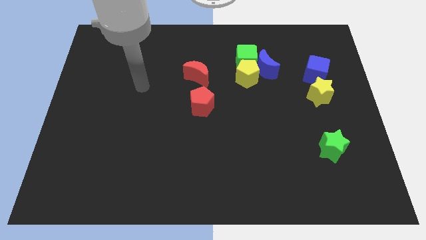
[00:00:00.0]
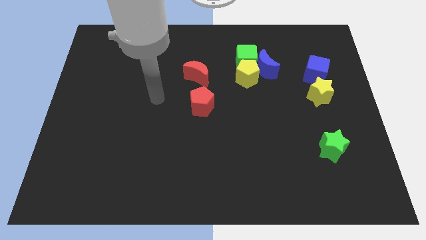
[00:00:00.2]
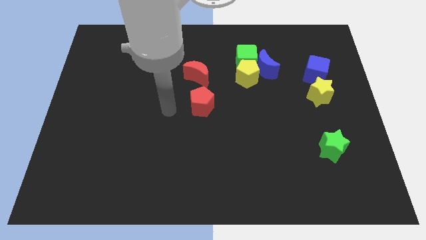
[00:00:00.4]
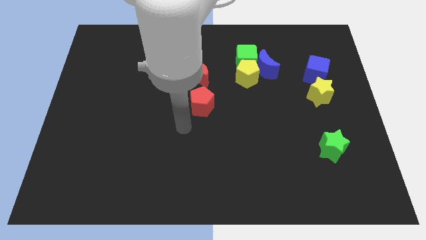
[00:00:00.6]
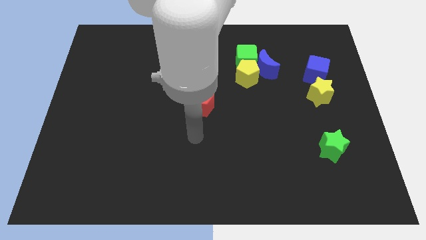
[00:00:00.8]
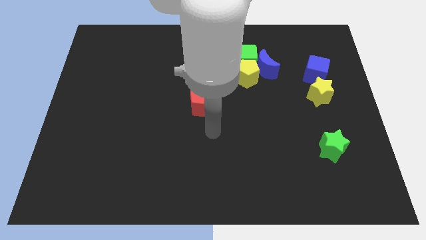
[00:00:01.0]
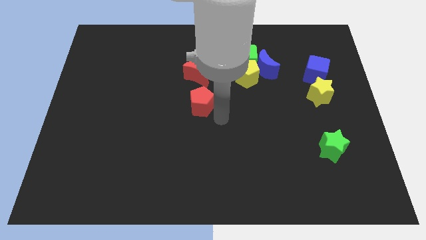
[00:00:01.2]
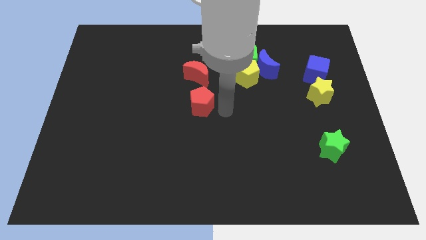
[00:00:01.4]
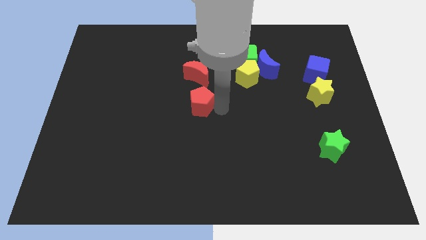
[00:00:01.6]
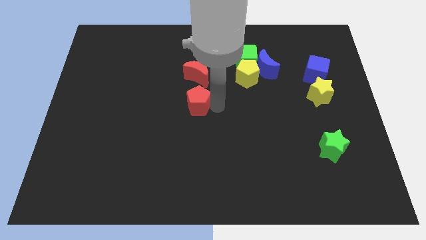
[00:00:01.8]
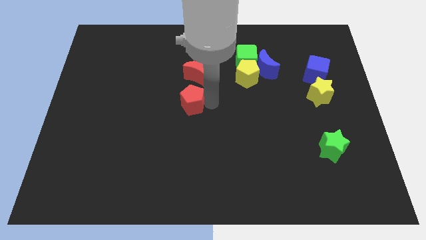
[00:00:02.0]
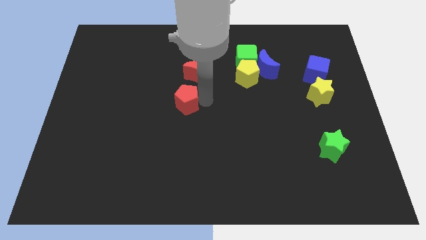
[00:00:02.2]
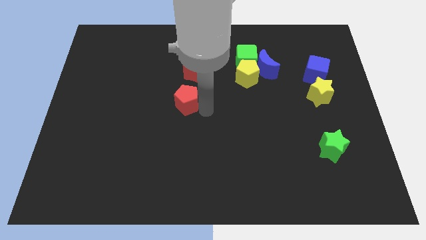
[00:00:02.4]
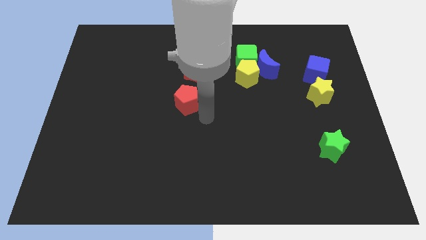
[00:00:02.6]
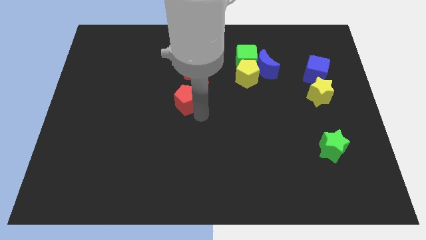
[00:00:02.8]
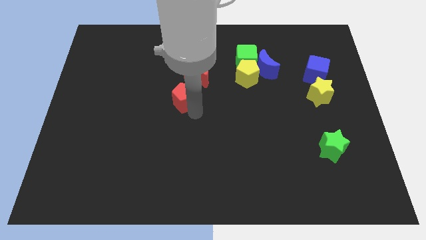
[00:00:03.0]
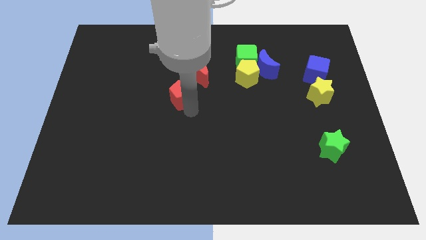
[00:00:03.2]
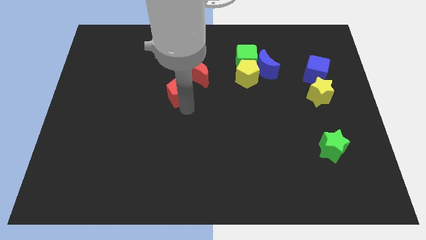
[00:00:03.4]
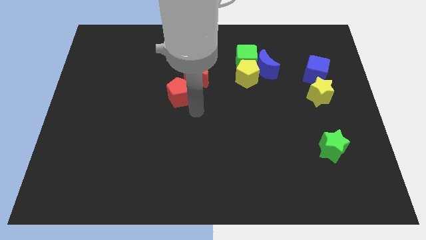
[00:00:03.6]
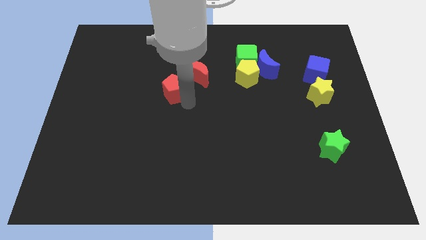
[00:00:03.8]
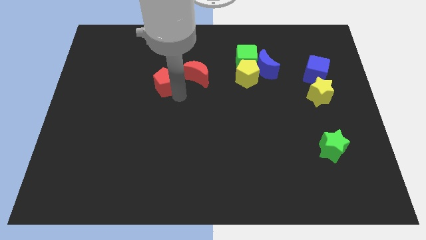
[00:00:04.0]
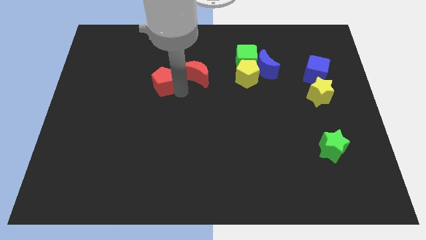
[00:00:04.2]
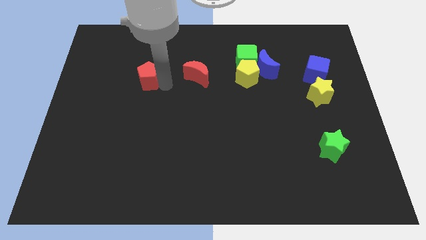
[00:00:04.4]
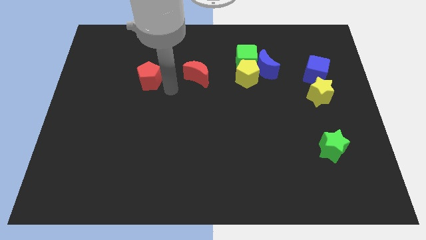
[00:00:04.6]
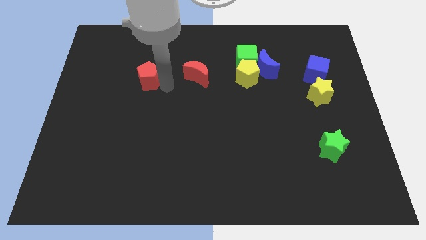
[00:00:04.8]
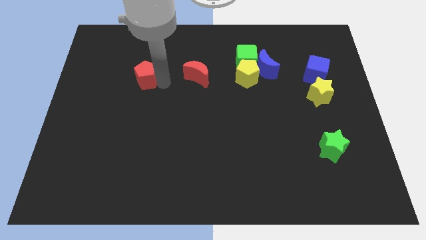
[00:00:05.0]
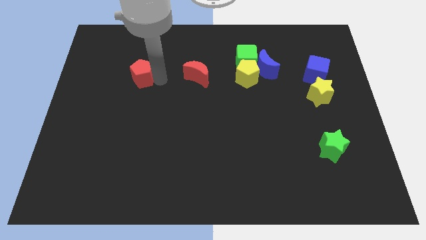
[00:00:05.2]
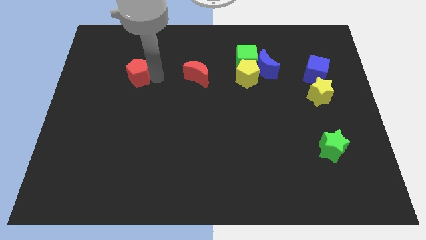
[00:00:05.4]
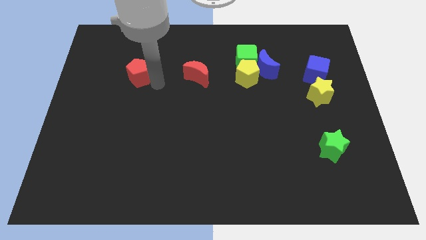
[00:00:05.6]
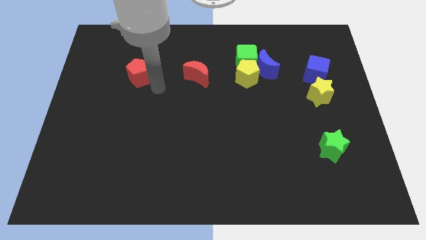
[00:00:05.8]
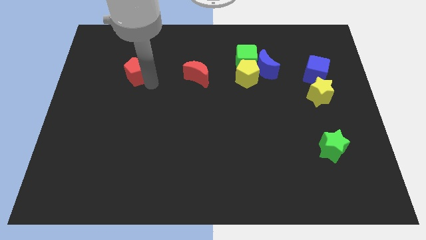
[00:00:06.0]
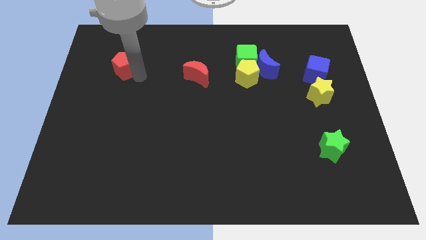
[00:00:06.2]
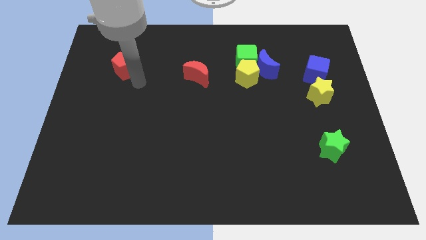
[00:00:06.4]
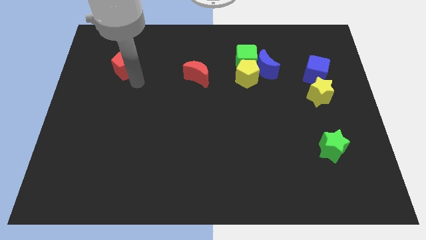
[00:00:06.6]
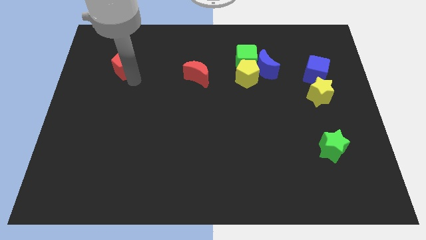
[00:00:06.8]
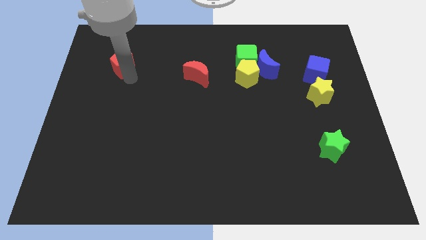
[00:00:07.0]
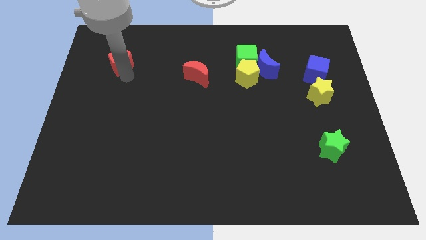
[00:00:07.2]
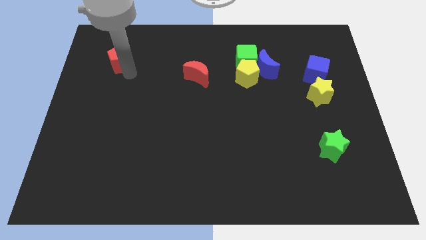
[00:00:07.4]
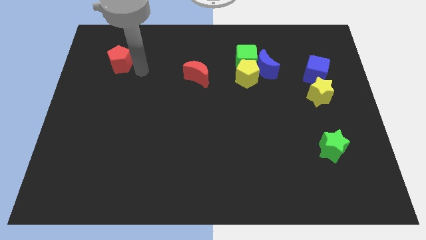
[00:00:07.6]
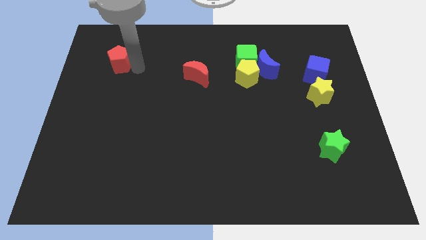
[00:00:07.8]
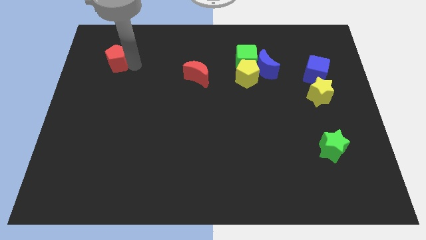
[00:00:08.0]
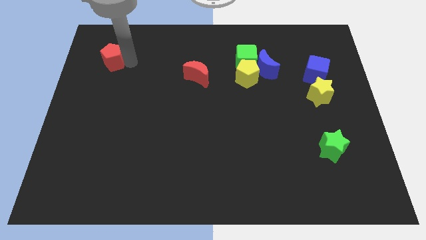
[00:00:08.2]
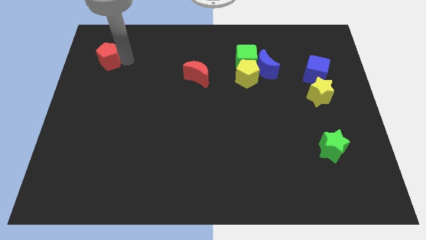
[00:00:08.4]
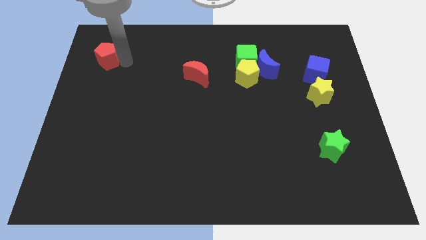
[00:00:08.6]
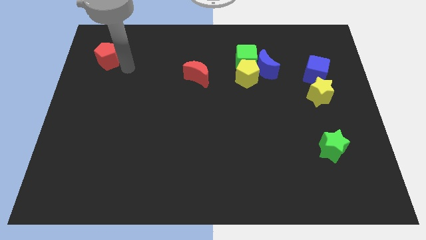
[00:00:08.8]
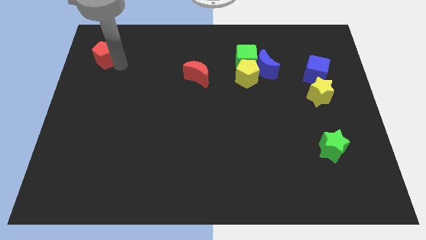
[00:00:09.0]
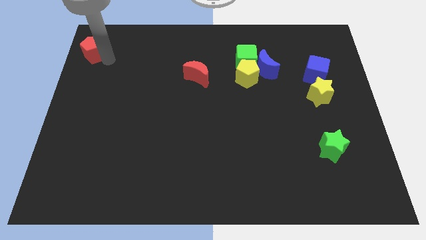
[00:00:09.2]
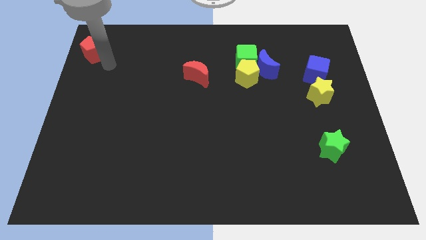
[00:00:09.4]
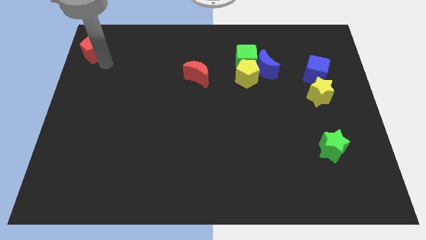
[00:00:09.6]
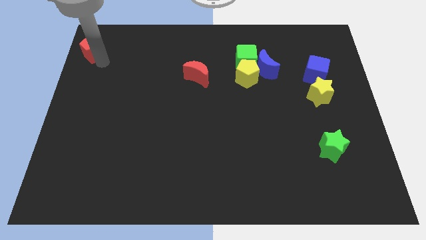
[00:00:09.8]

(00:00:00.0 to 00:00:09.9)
move the red pentagon to the upper left corner

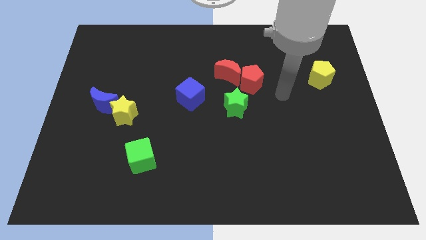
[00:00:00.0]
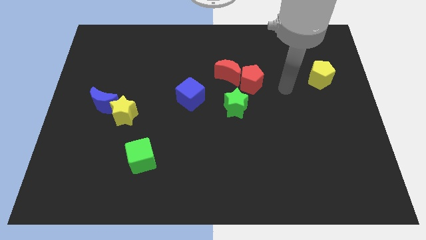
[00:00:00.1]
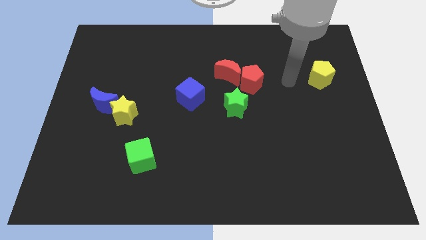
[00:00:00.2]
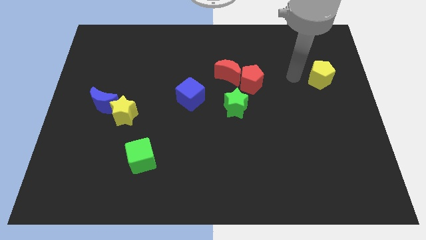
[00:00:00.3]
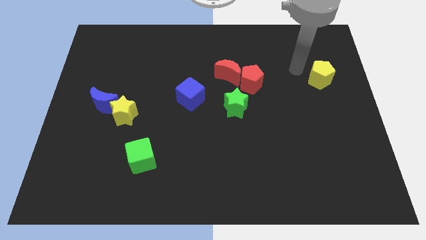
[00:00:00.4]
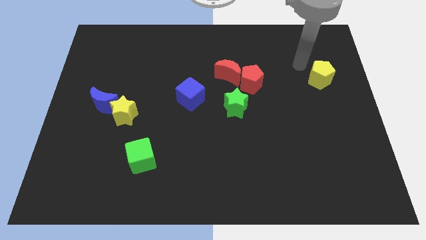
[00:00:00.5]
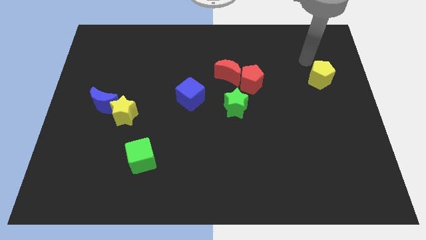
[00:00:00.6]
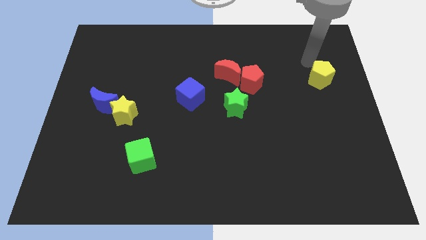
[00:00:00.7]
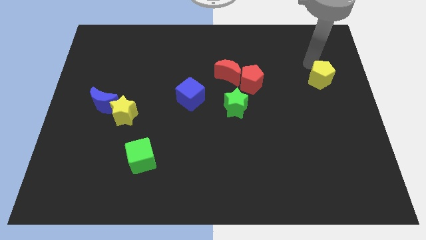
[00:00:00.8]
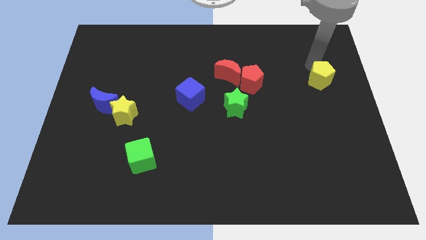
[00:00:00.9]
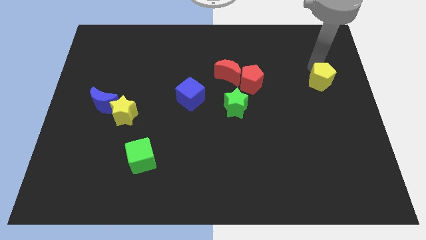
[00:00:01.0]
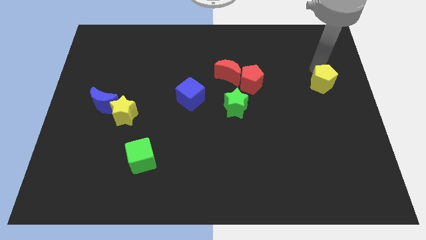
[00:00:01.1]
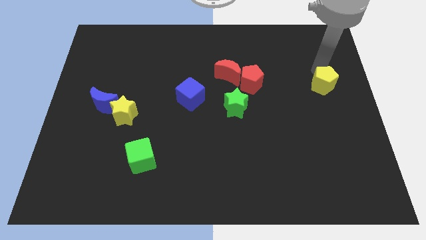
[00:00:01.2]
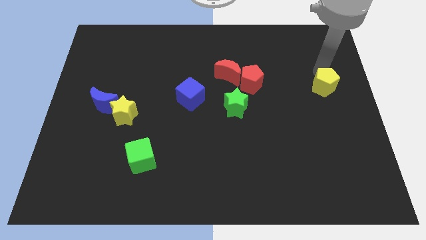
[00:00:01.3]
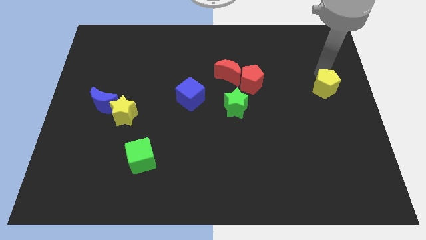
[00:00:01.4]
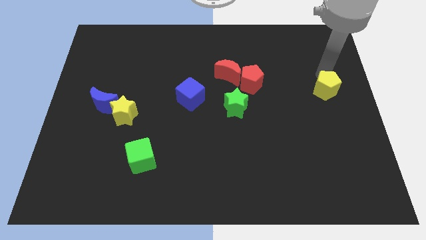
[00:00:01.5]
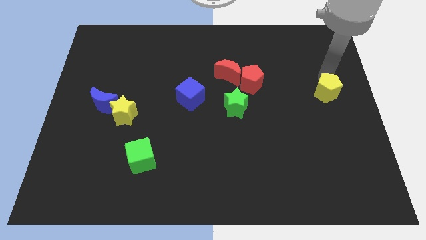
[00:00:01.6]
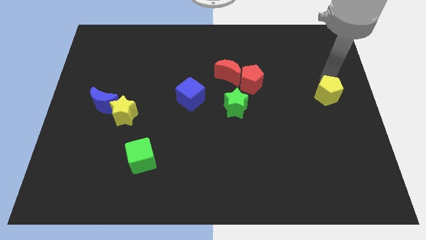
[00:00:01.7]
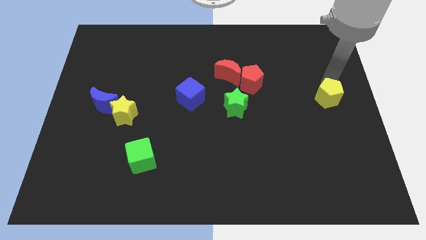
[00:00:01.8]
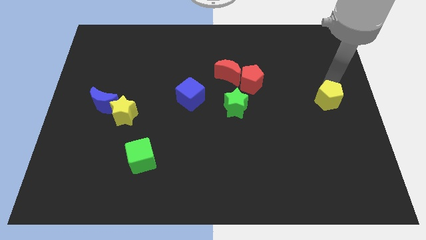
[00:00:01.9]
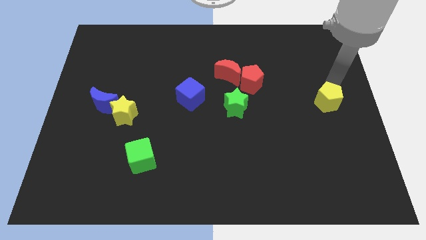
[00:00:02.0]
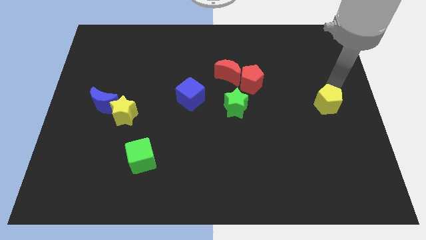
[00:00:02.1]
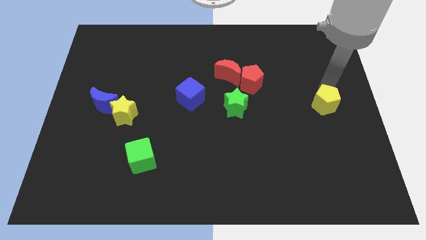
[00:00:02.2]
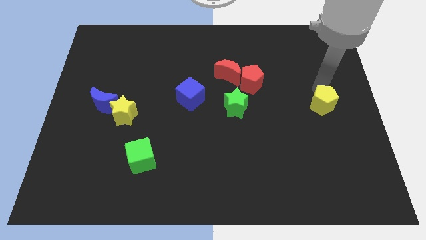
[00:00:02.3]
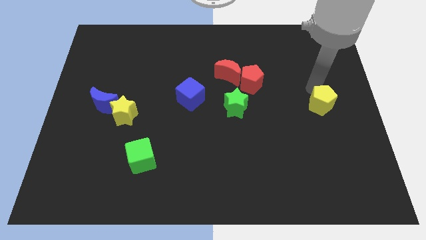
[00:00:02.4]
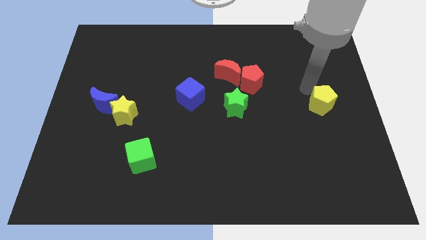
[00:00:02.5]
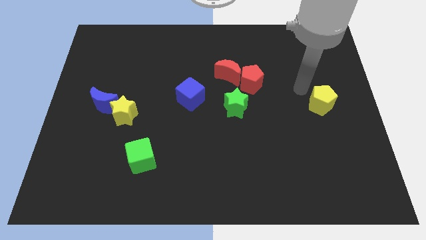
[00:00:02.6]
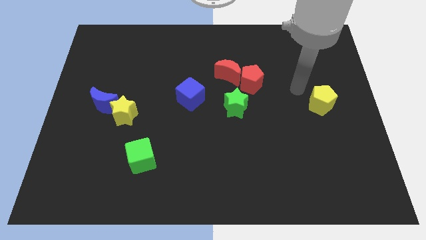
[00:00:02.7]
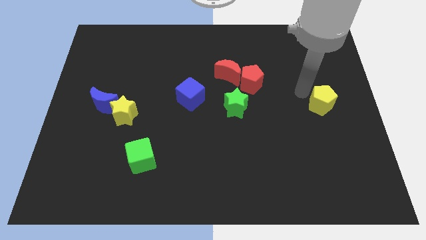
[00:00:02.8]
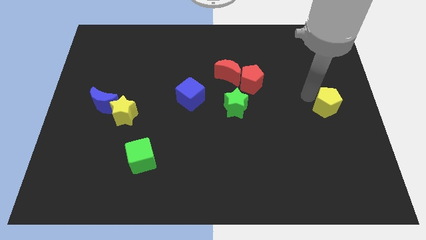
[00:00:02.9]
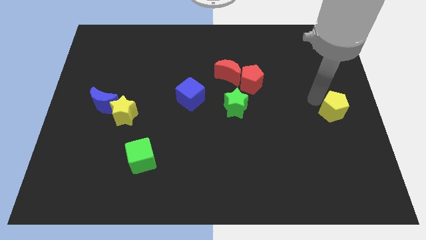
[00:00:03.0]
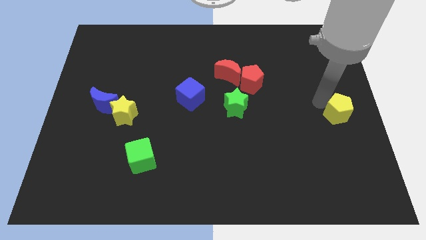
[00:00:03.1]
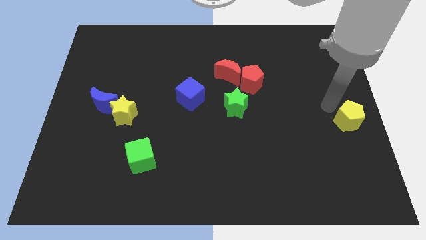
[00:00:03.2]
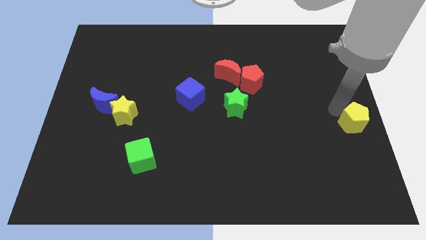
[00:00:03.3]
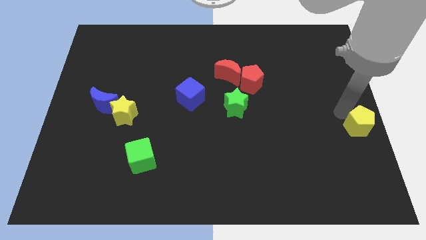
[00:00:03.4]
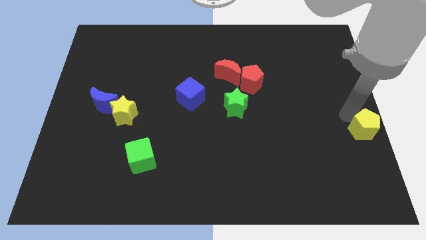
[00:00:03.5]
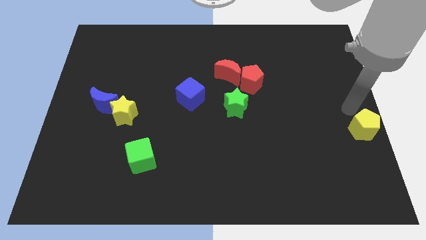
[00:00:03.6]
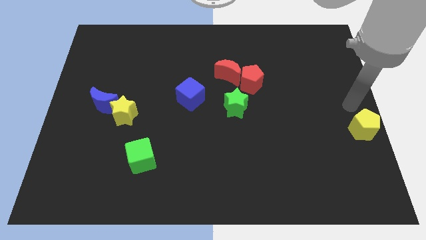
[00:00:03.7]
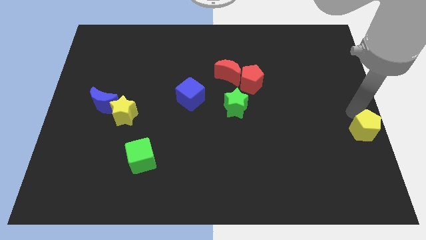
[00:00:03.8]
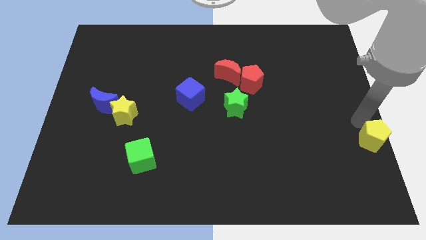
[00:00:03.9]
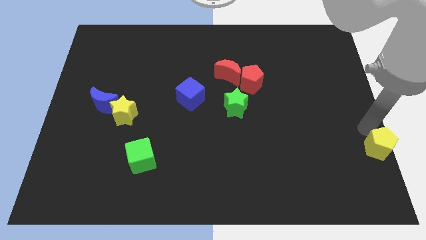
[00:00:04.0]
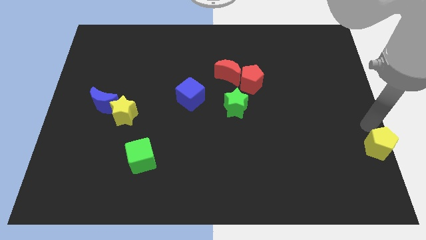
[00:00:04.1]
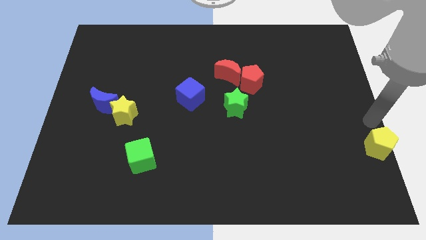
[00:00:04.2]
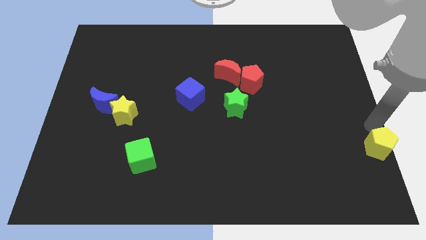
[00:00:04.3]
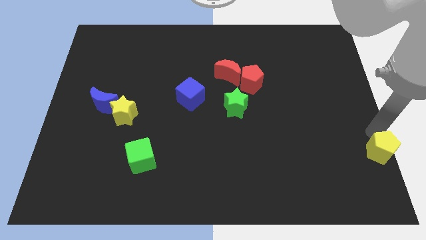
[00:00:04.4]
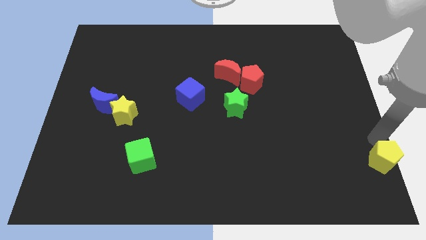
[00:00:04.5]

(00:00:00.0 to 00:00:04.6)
move the yellow pentagon to the bottom right of the board
